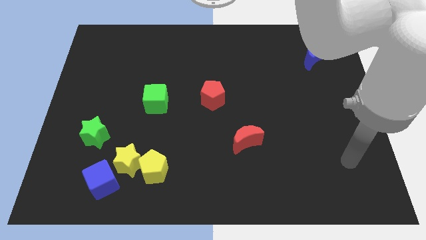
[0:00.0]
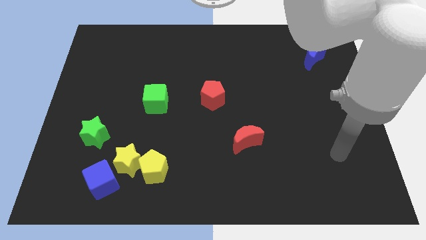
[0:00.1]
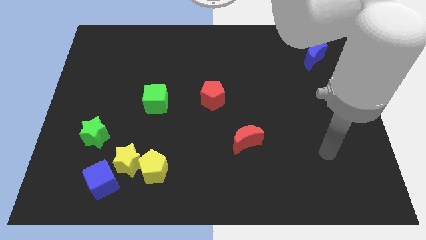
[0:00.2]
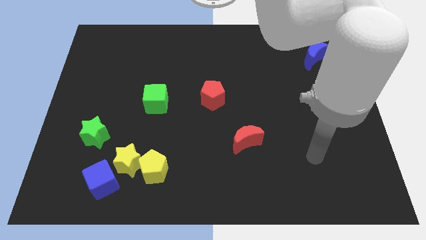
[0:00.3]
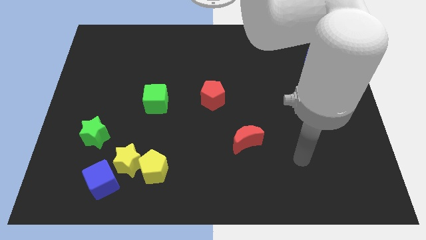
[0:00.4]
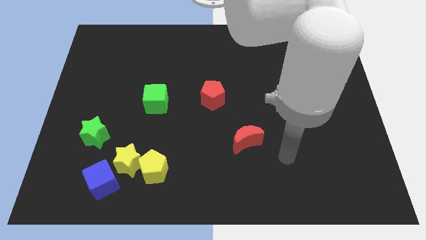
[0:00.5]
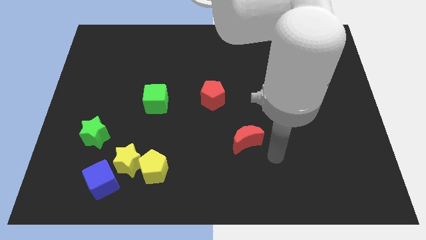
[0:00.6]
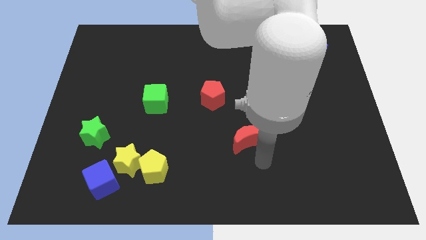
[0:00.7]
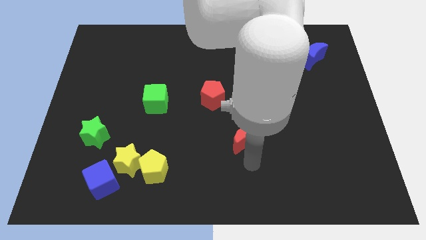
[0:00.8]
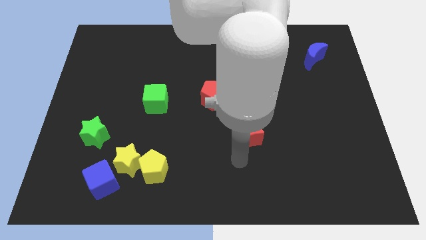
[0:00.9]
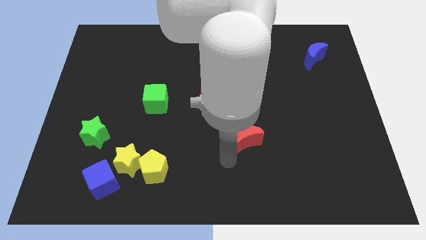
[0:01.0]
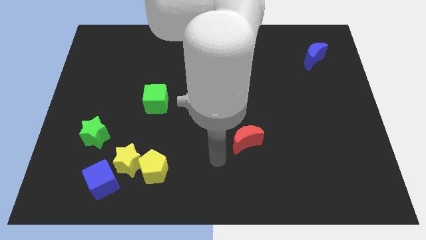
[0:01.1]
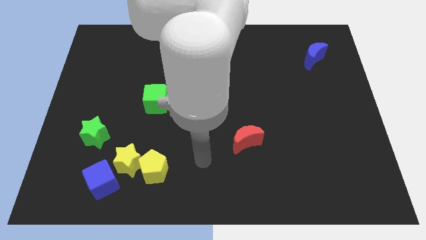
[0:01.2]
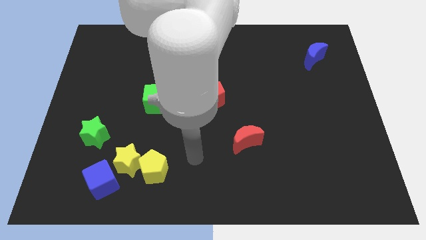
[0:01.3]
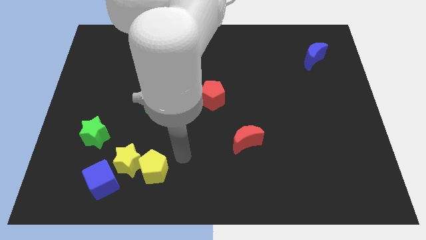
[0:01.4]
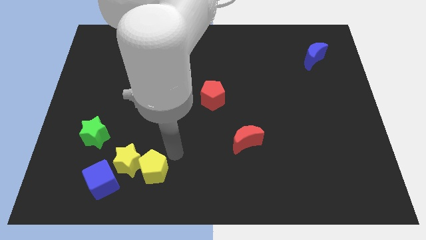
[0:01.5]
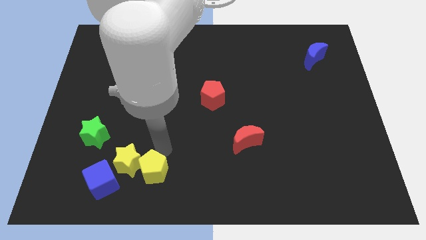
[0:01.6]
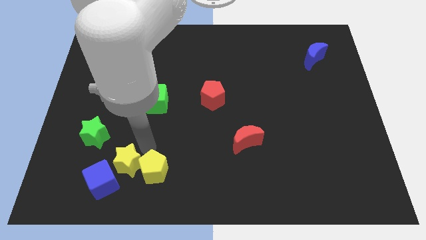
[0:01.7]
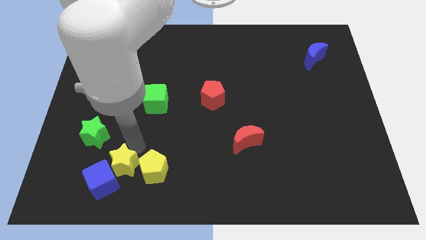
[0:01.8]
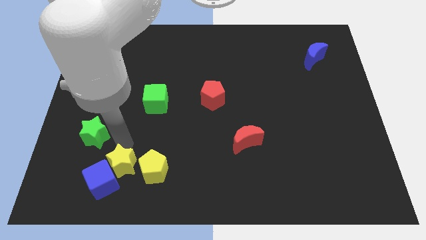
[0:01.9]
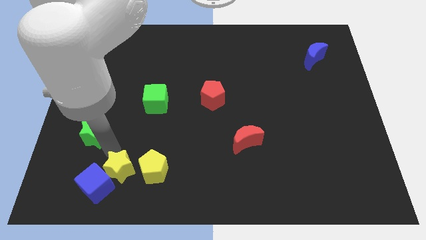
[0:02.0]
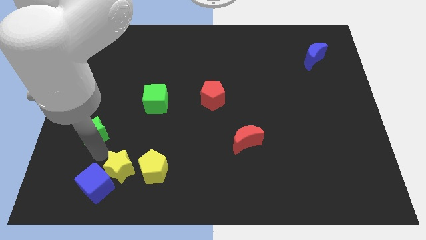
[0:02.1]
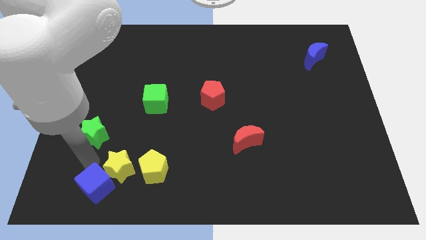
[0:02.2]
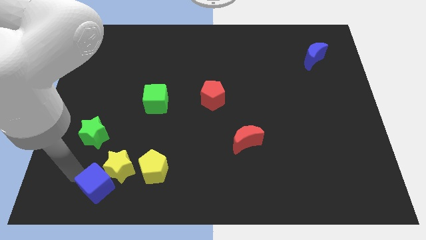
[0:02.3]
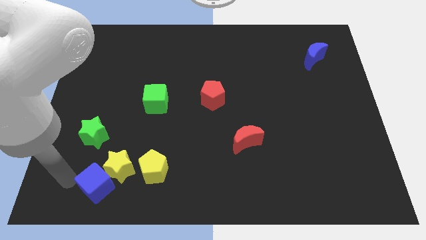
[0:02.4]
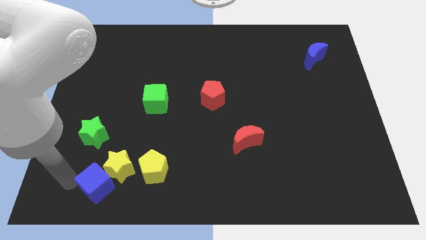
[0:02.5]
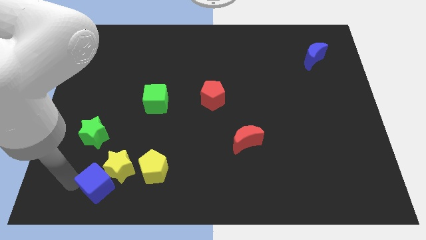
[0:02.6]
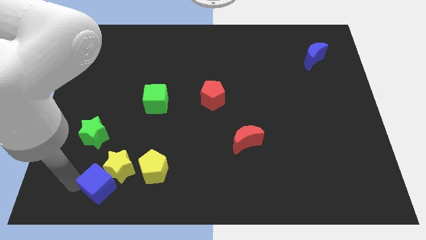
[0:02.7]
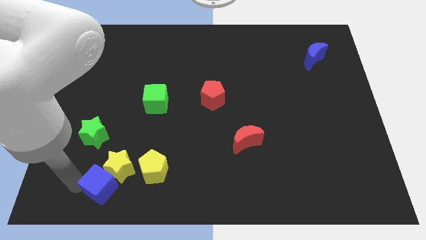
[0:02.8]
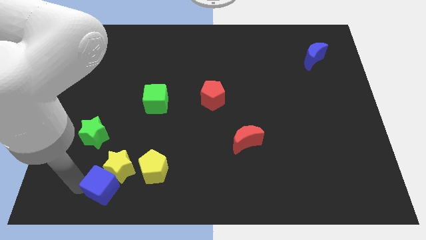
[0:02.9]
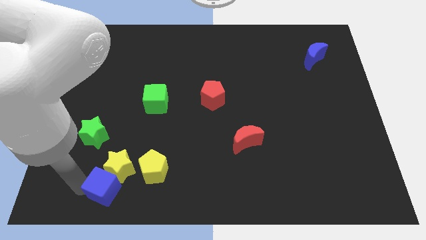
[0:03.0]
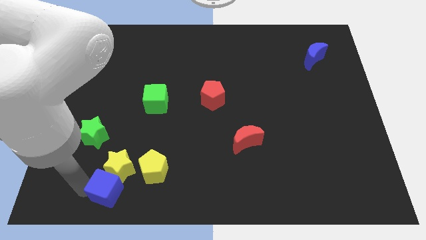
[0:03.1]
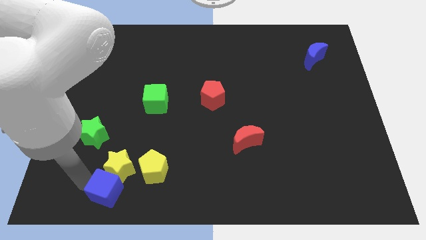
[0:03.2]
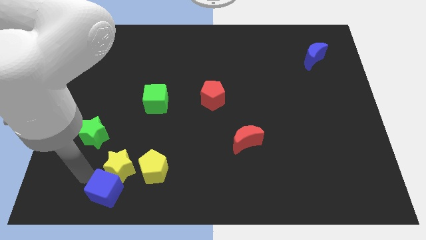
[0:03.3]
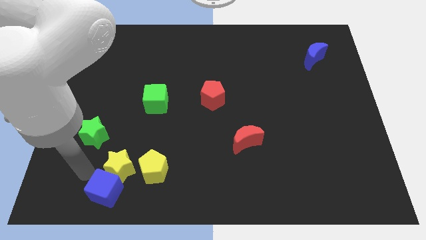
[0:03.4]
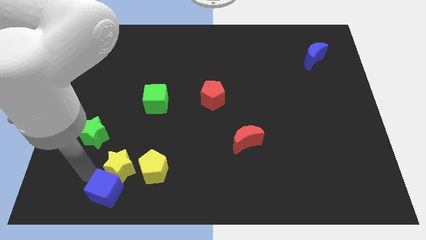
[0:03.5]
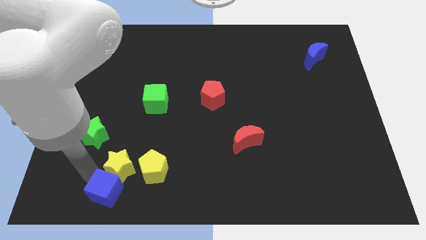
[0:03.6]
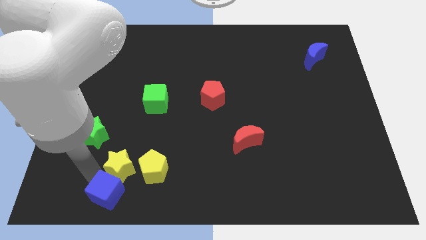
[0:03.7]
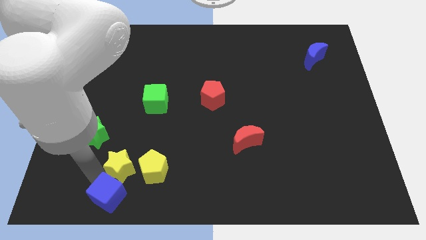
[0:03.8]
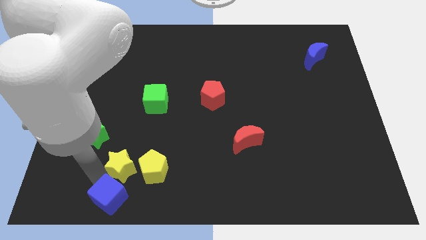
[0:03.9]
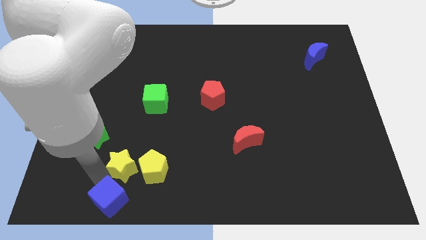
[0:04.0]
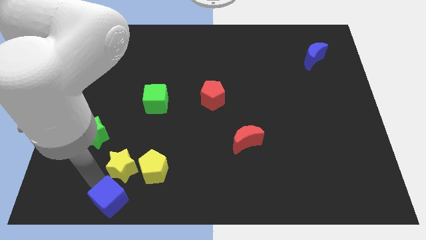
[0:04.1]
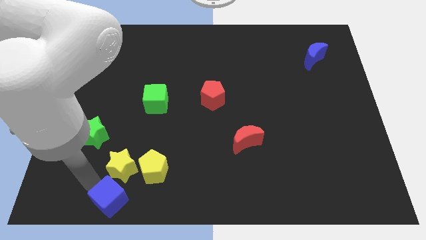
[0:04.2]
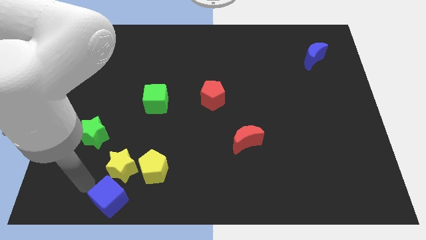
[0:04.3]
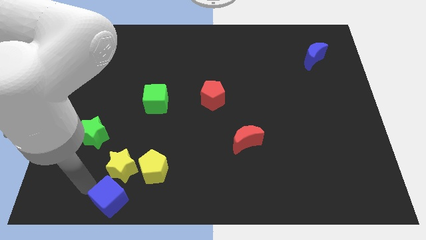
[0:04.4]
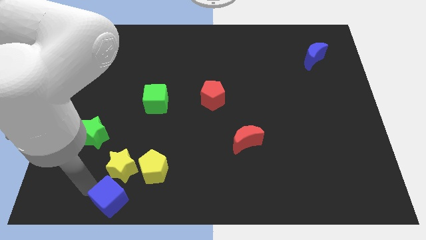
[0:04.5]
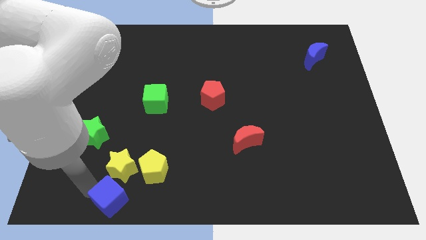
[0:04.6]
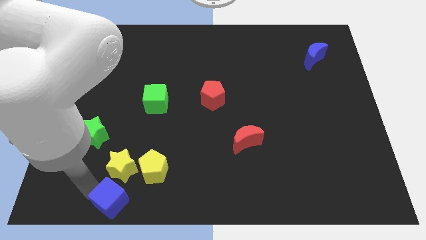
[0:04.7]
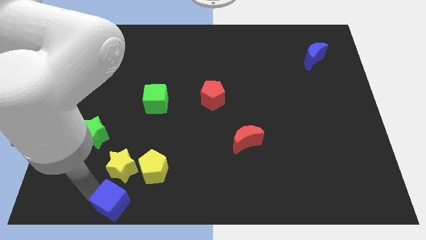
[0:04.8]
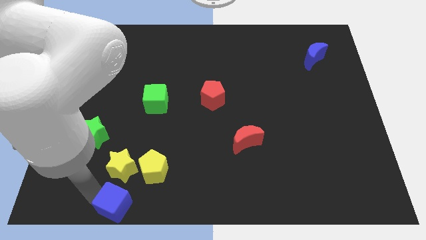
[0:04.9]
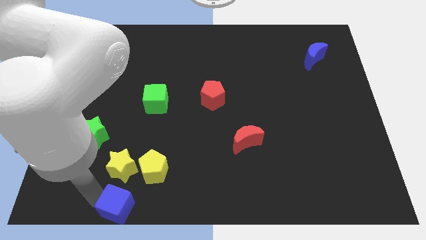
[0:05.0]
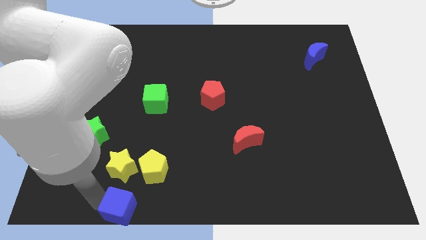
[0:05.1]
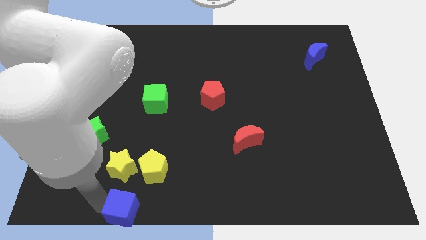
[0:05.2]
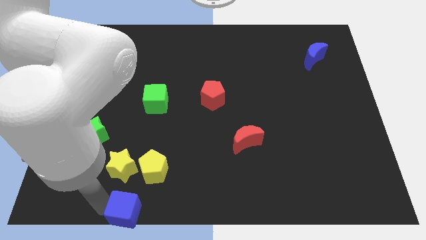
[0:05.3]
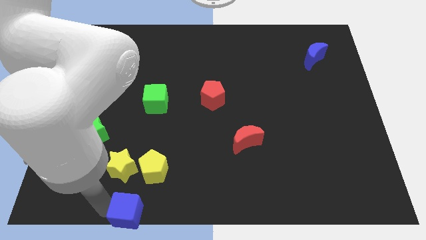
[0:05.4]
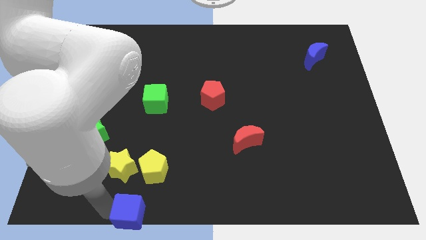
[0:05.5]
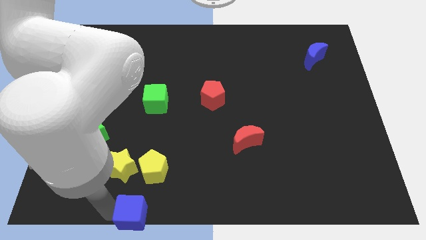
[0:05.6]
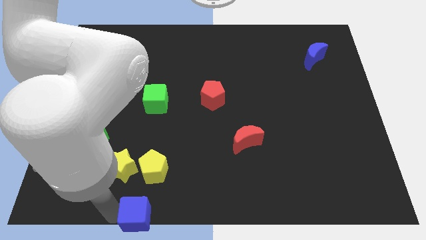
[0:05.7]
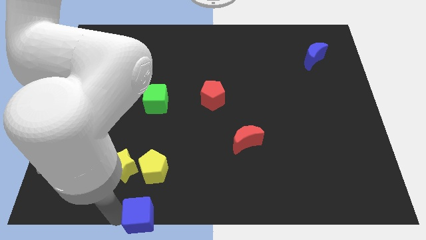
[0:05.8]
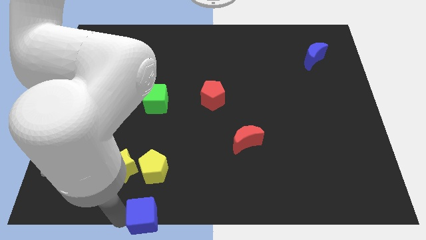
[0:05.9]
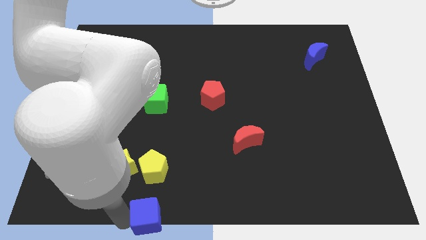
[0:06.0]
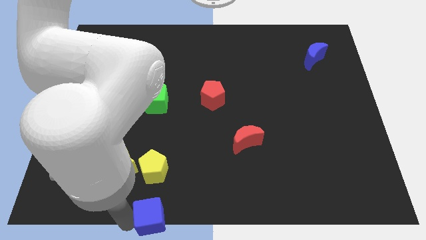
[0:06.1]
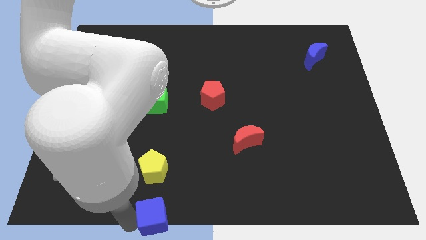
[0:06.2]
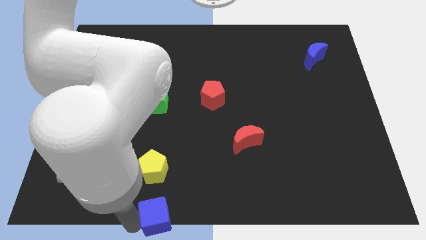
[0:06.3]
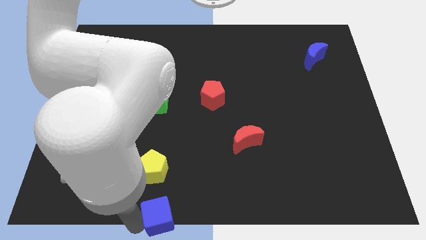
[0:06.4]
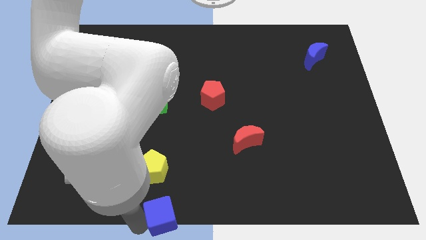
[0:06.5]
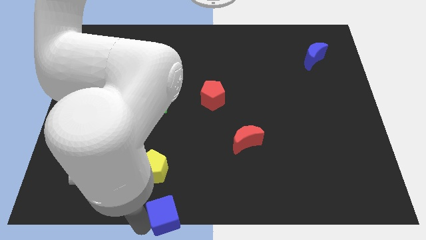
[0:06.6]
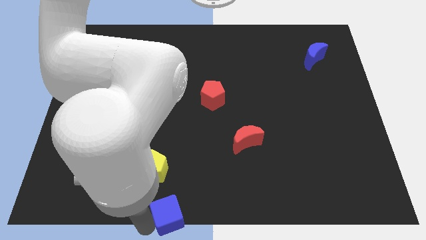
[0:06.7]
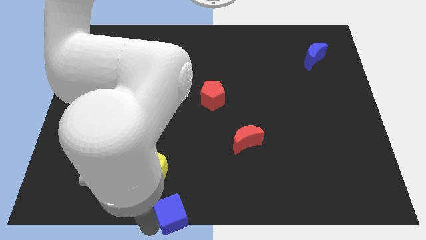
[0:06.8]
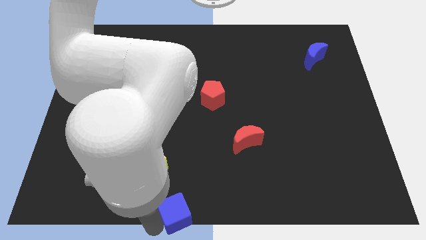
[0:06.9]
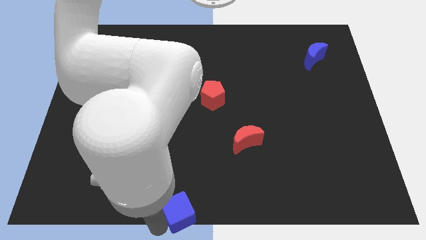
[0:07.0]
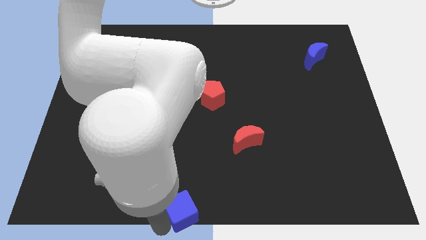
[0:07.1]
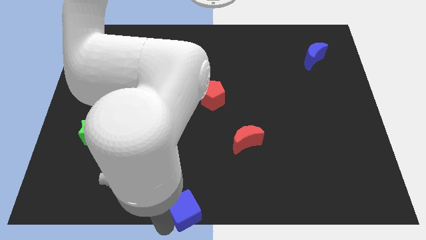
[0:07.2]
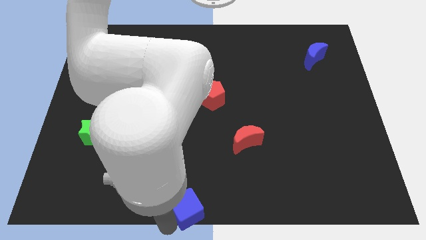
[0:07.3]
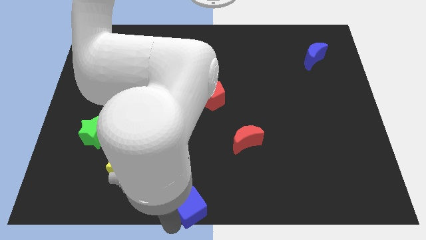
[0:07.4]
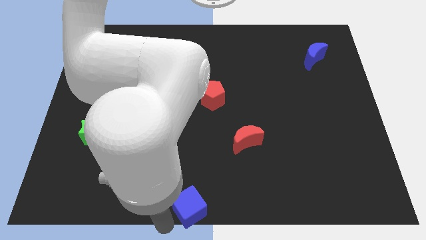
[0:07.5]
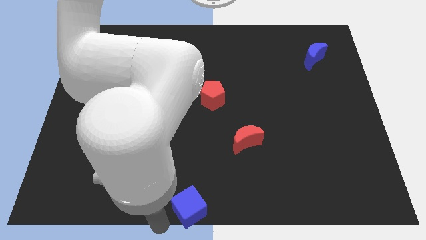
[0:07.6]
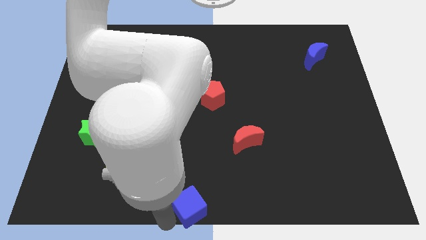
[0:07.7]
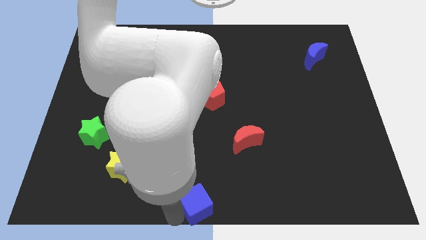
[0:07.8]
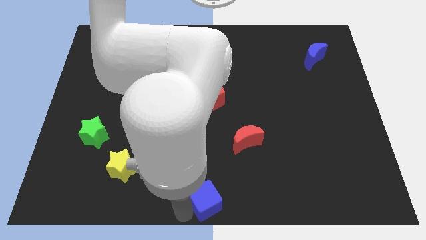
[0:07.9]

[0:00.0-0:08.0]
slide the blue cube to the right
